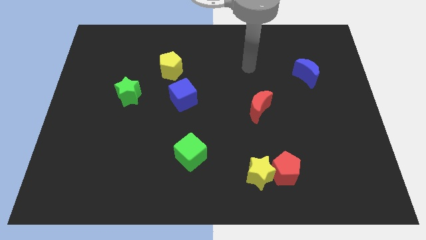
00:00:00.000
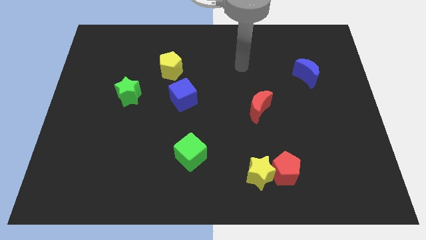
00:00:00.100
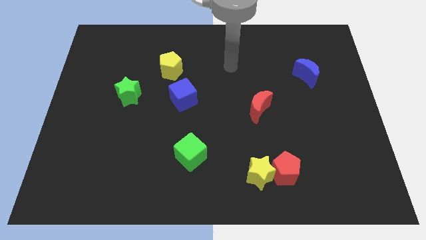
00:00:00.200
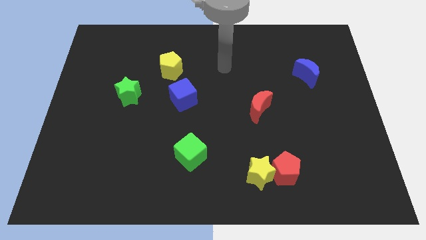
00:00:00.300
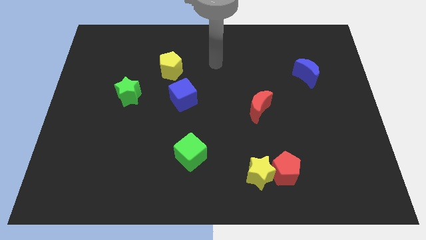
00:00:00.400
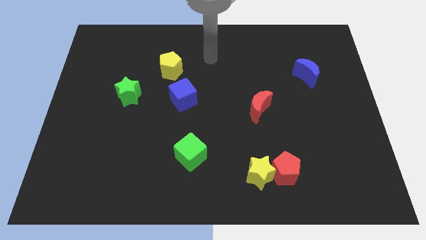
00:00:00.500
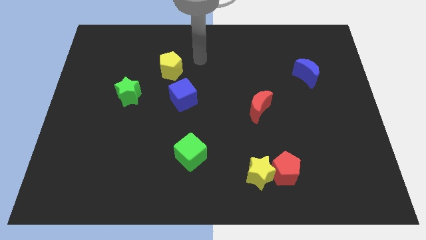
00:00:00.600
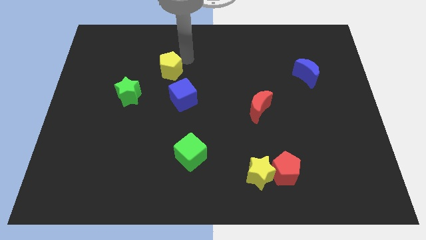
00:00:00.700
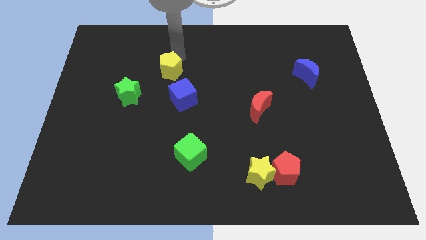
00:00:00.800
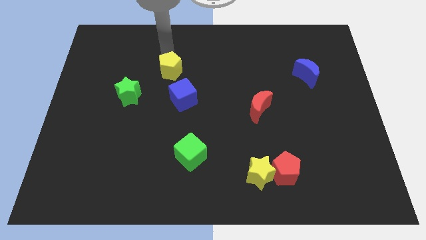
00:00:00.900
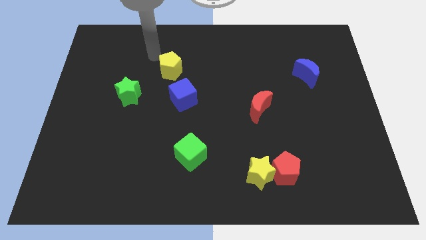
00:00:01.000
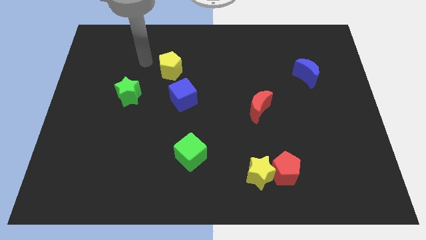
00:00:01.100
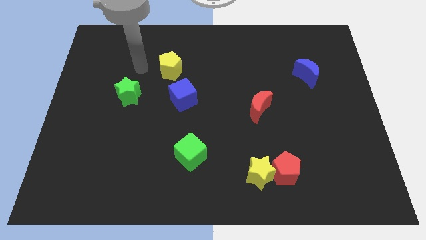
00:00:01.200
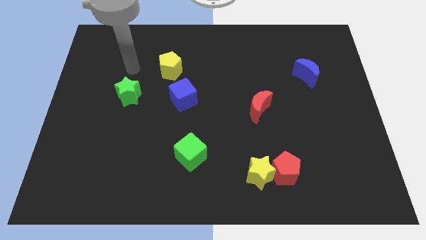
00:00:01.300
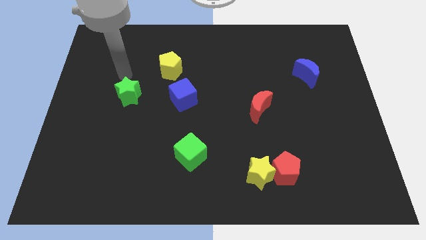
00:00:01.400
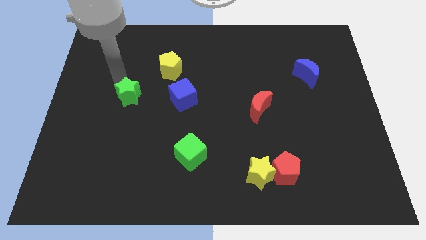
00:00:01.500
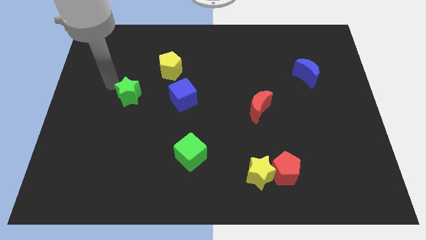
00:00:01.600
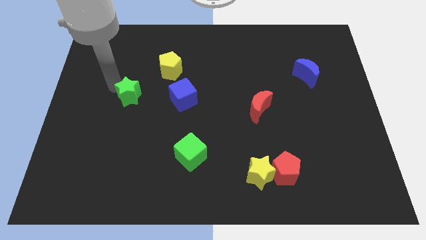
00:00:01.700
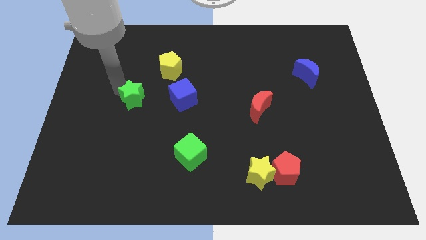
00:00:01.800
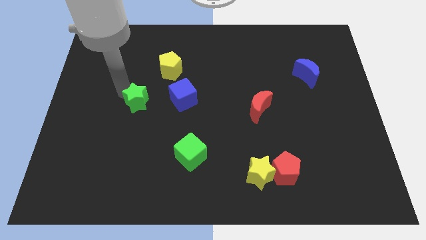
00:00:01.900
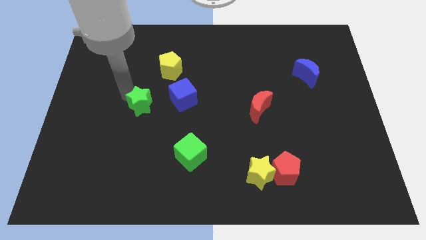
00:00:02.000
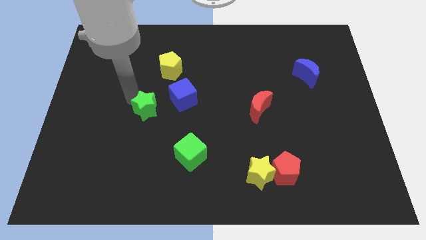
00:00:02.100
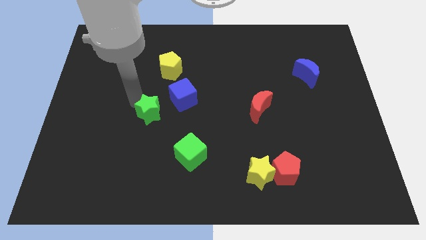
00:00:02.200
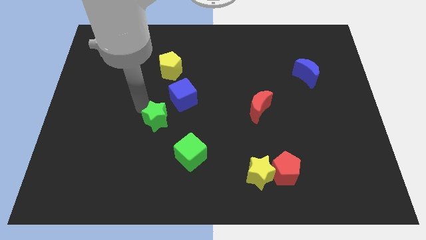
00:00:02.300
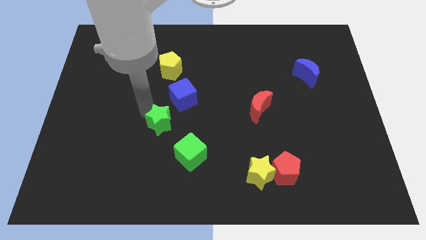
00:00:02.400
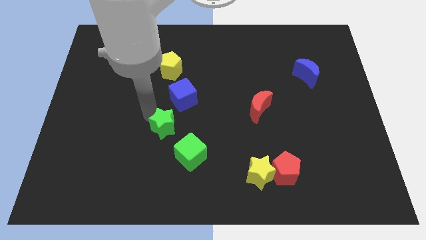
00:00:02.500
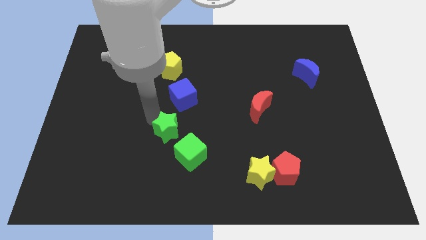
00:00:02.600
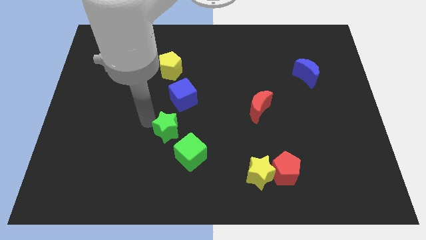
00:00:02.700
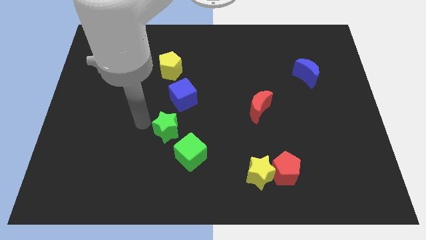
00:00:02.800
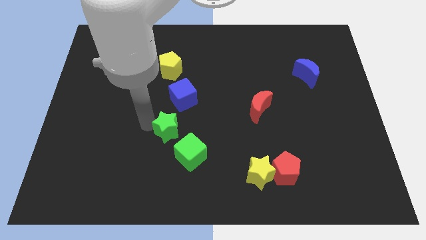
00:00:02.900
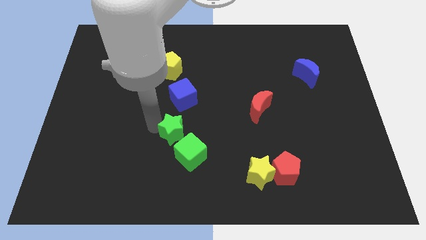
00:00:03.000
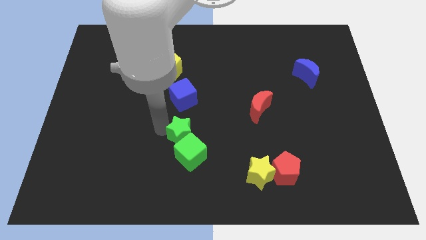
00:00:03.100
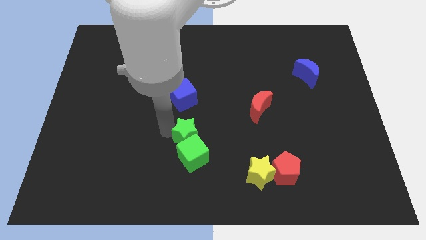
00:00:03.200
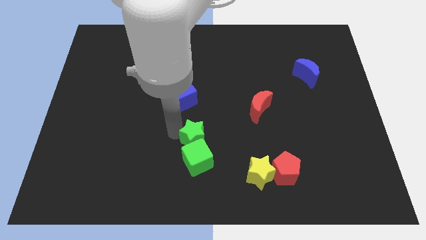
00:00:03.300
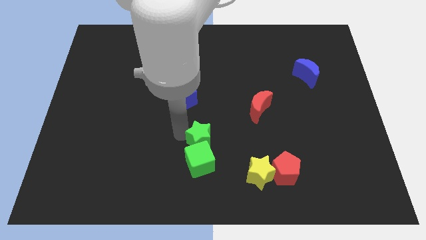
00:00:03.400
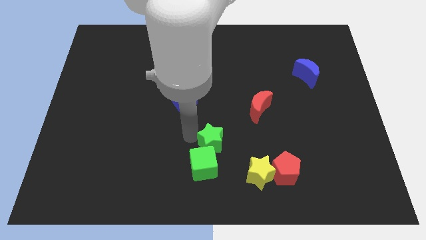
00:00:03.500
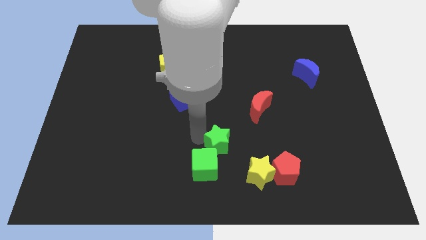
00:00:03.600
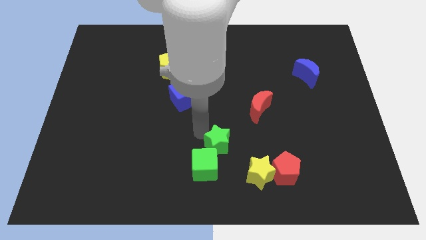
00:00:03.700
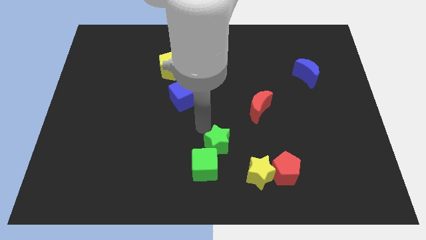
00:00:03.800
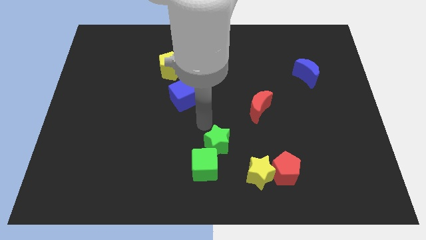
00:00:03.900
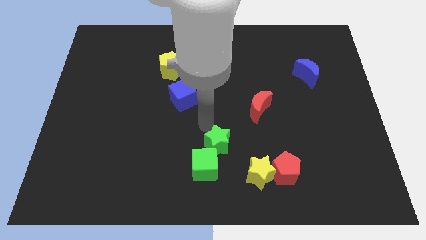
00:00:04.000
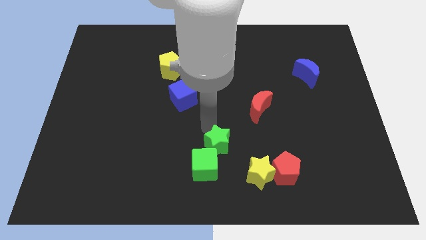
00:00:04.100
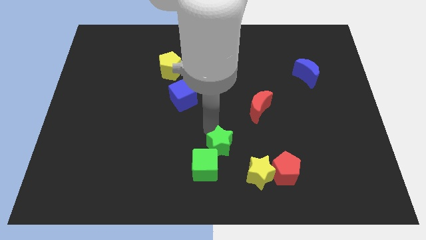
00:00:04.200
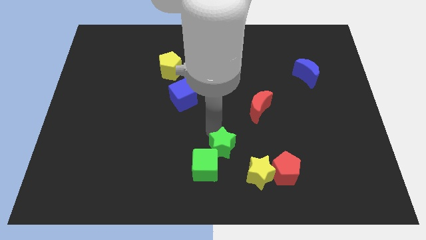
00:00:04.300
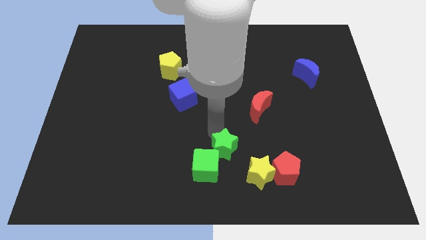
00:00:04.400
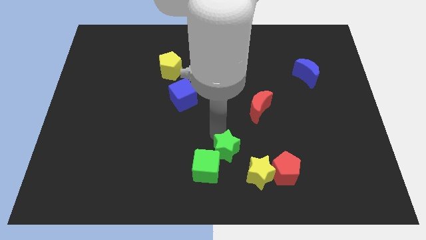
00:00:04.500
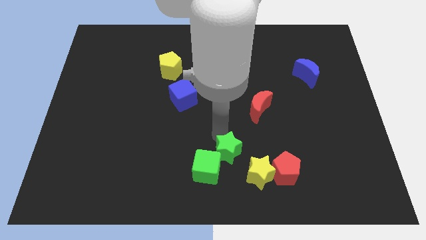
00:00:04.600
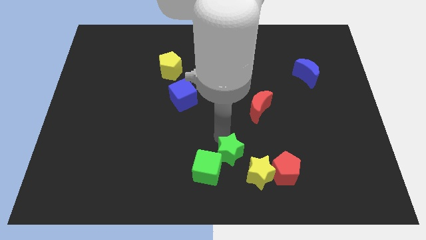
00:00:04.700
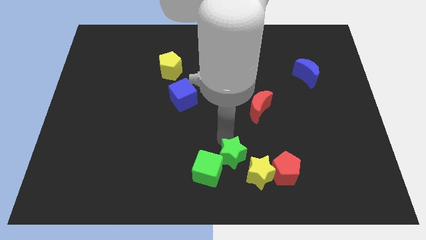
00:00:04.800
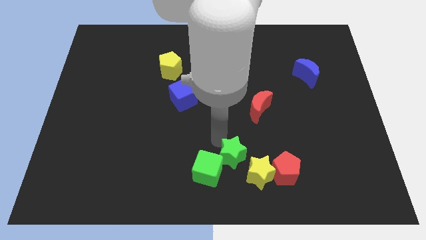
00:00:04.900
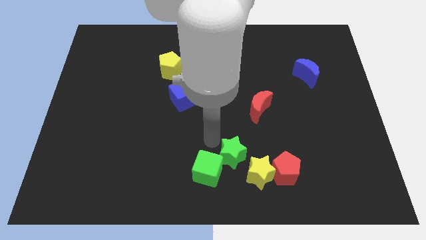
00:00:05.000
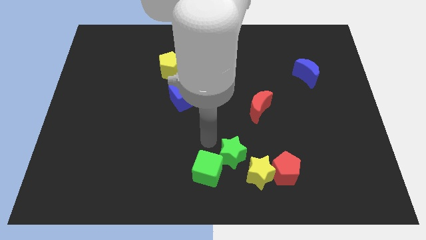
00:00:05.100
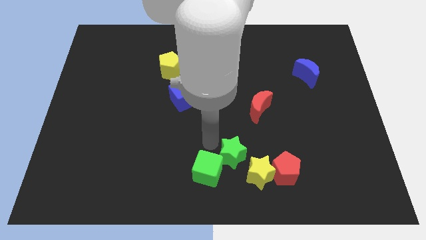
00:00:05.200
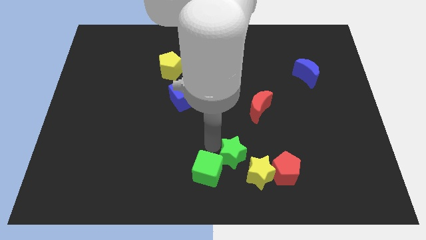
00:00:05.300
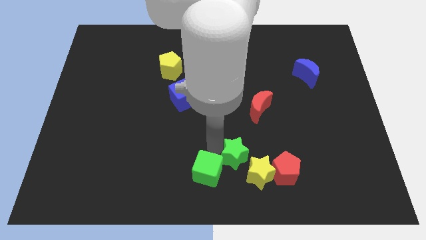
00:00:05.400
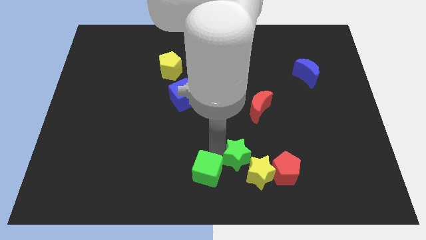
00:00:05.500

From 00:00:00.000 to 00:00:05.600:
push the green star towards the yellow star

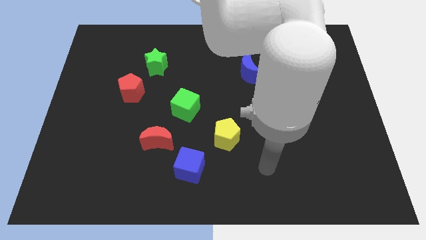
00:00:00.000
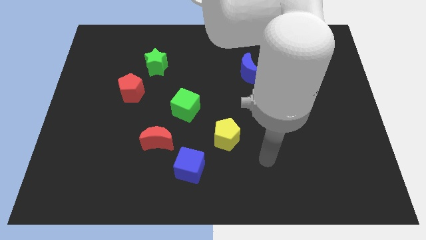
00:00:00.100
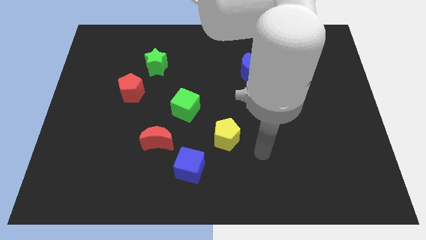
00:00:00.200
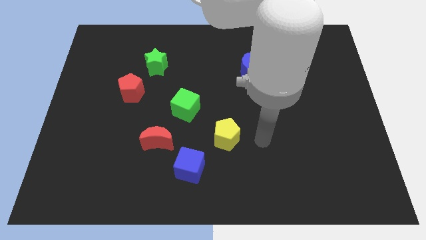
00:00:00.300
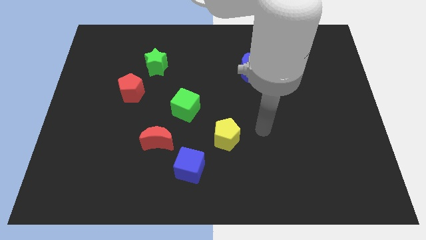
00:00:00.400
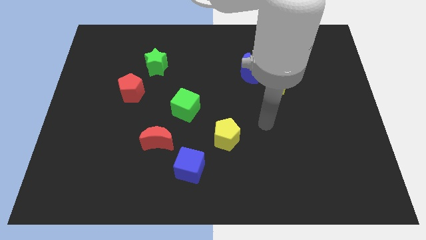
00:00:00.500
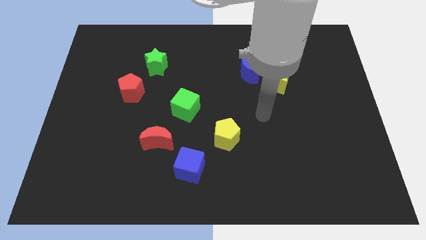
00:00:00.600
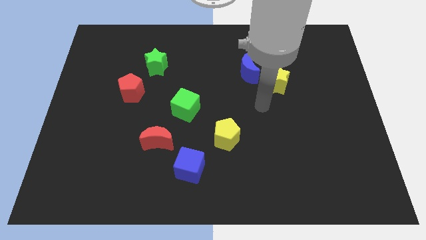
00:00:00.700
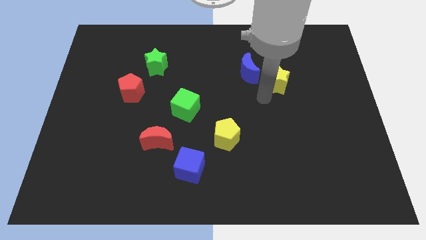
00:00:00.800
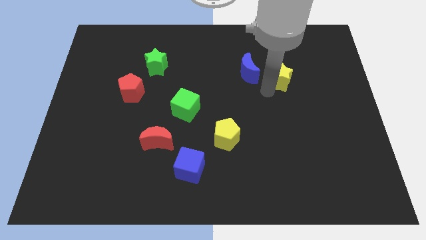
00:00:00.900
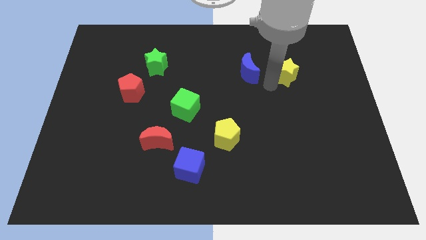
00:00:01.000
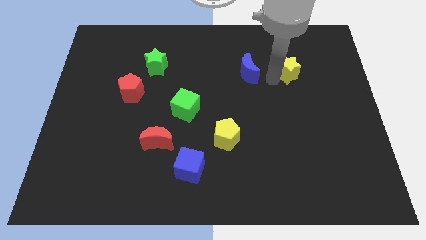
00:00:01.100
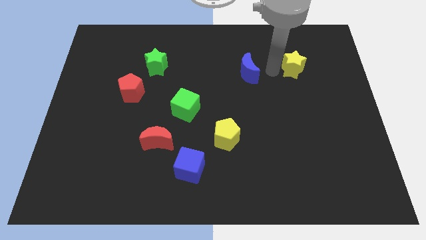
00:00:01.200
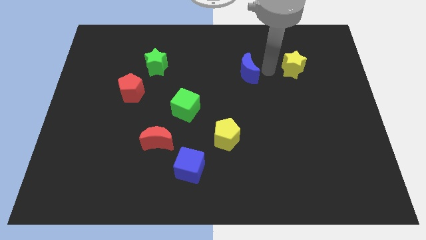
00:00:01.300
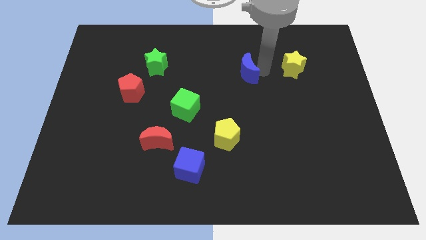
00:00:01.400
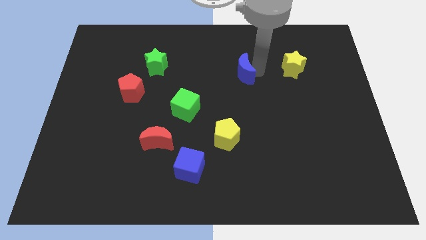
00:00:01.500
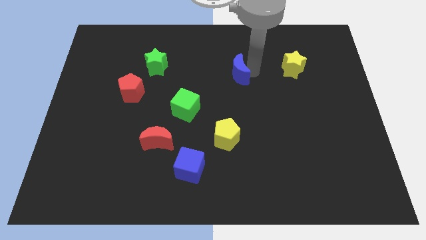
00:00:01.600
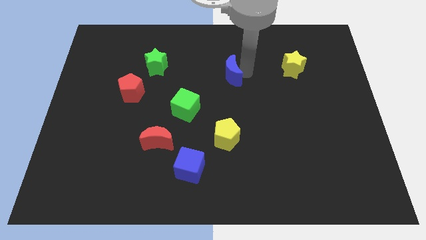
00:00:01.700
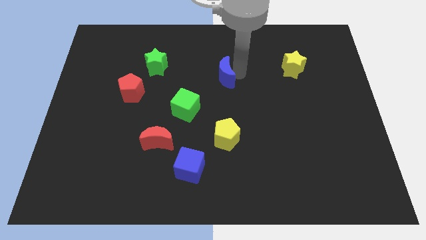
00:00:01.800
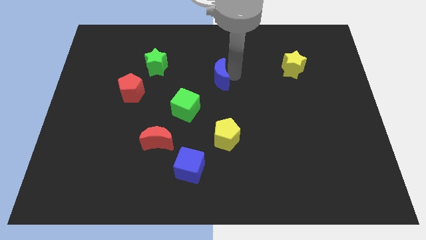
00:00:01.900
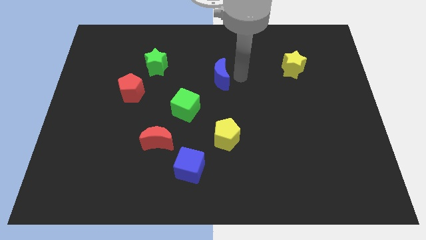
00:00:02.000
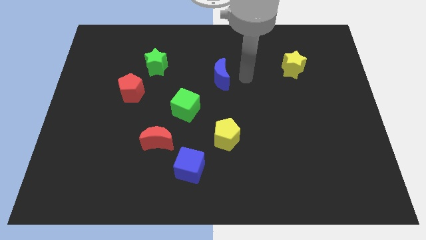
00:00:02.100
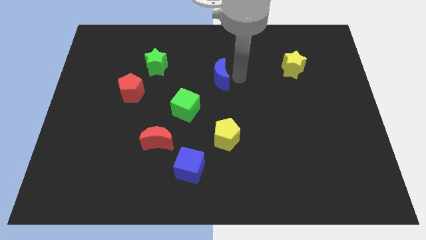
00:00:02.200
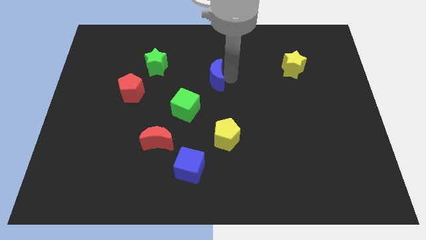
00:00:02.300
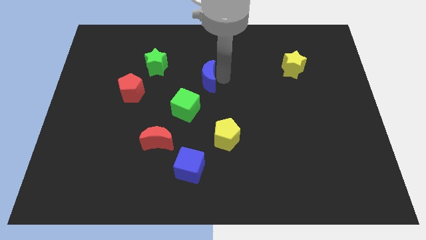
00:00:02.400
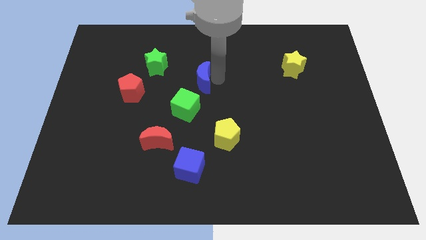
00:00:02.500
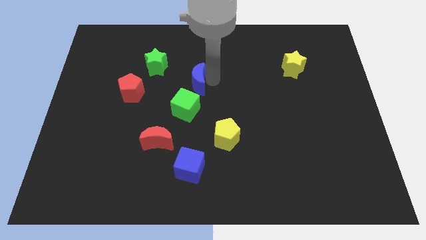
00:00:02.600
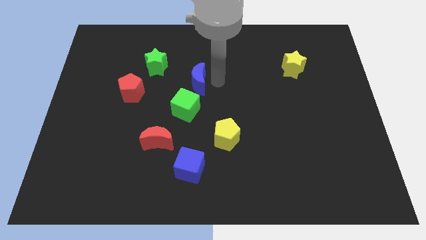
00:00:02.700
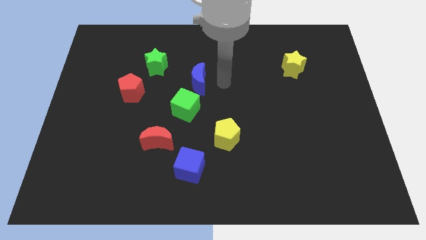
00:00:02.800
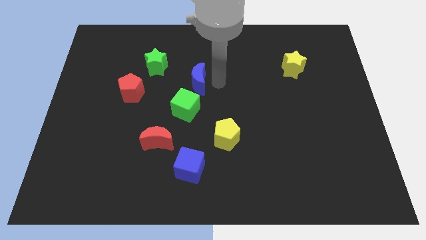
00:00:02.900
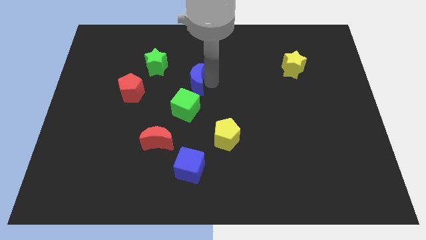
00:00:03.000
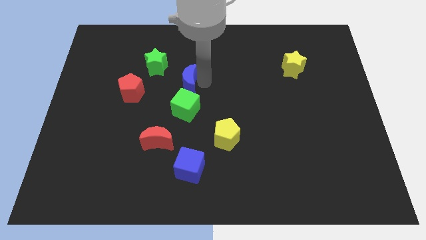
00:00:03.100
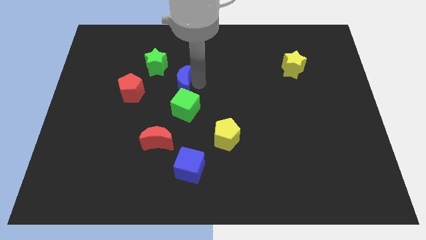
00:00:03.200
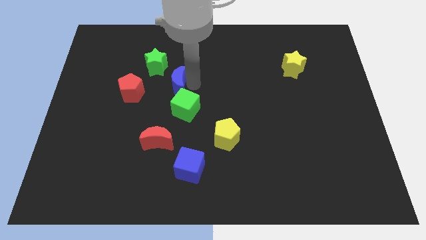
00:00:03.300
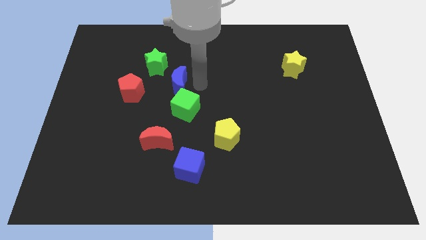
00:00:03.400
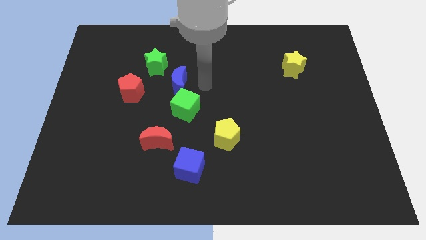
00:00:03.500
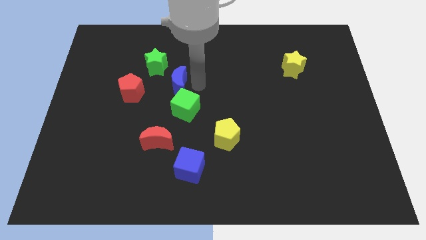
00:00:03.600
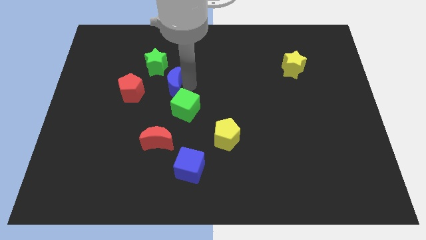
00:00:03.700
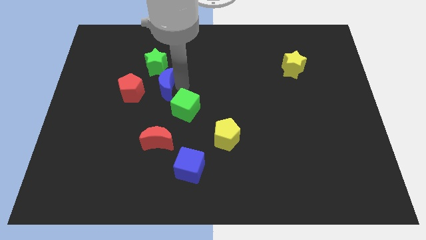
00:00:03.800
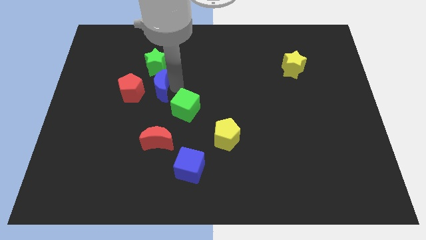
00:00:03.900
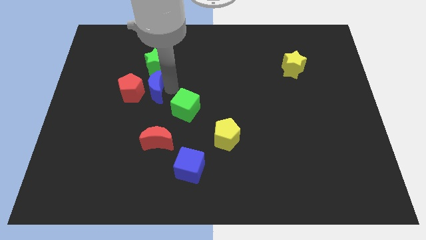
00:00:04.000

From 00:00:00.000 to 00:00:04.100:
put the blue moon to the red pentagon
